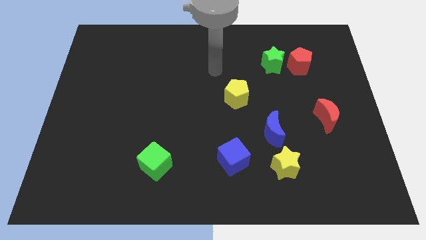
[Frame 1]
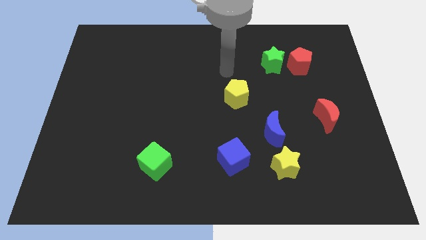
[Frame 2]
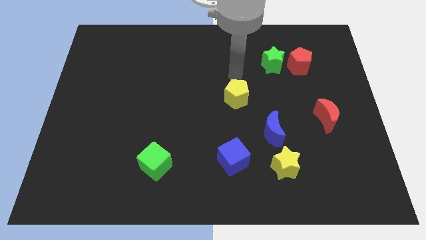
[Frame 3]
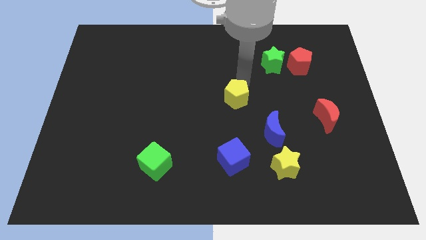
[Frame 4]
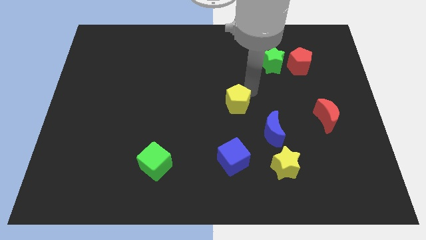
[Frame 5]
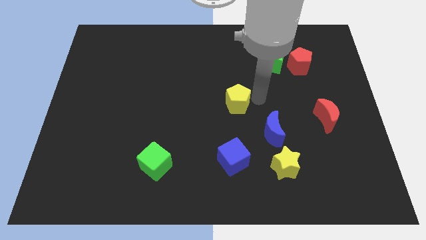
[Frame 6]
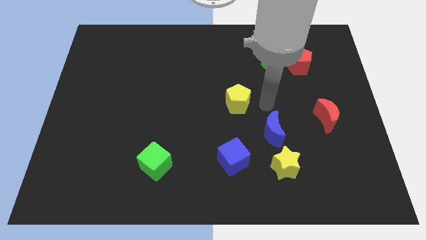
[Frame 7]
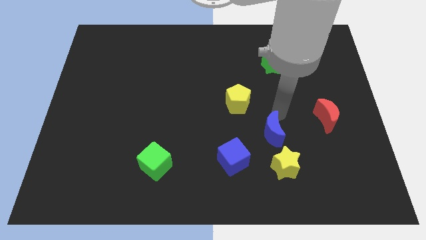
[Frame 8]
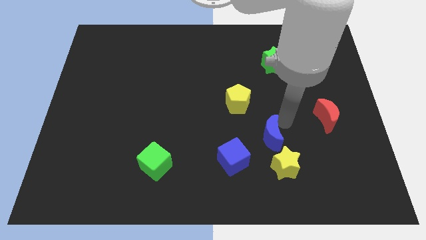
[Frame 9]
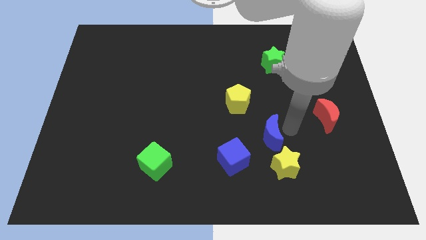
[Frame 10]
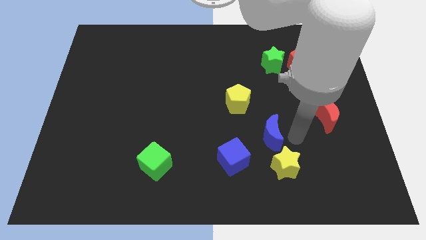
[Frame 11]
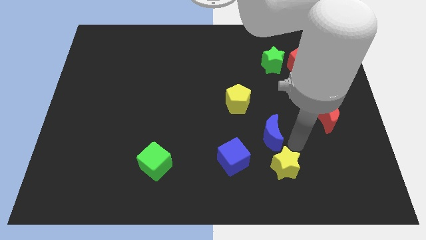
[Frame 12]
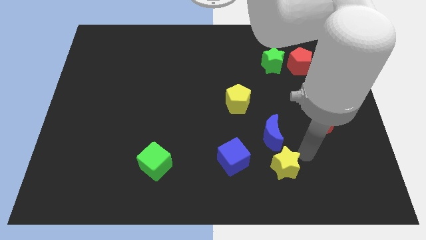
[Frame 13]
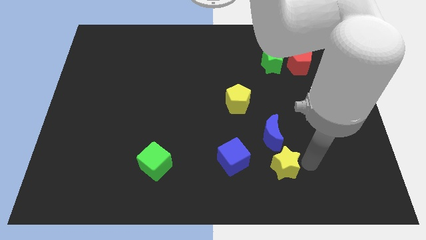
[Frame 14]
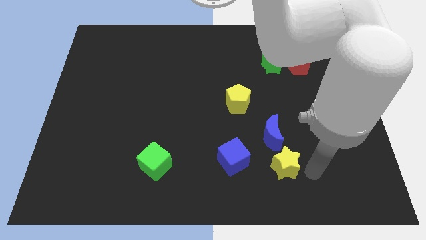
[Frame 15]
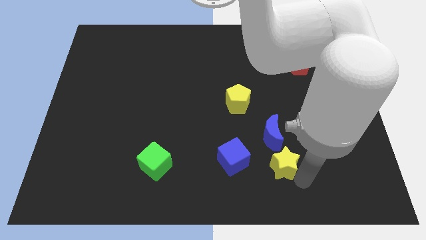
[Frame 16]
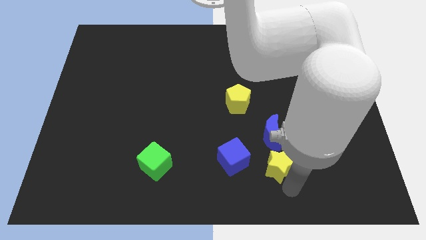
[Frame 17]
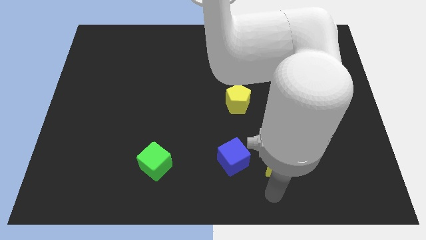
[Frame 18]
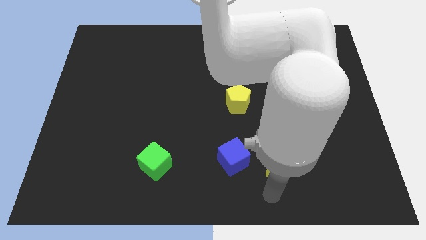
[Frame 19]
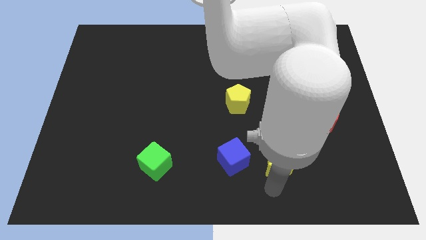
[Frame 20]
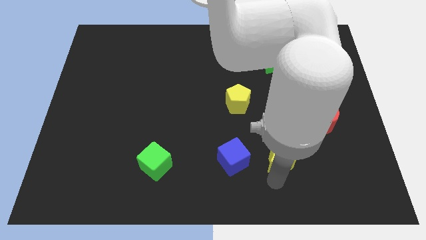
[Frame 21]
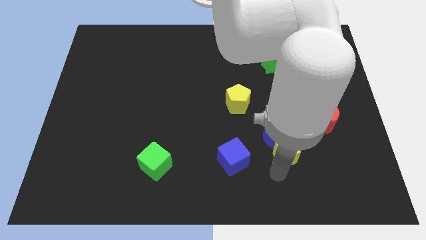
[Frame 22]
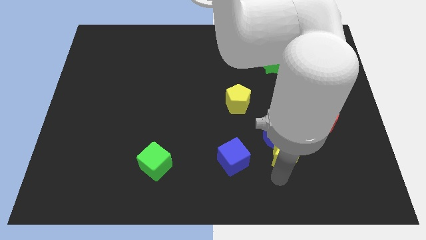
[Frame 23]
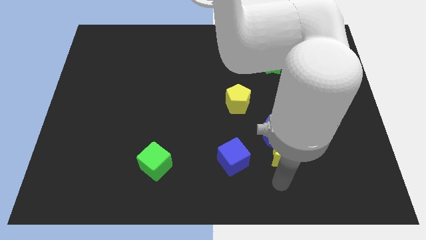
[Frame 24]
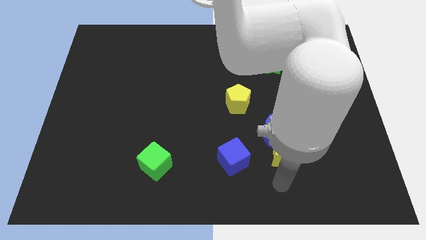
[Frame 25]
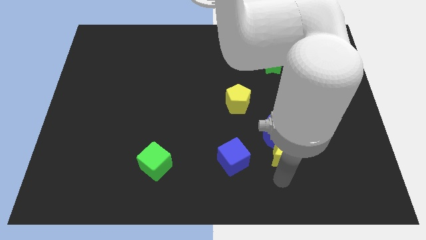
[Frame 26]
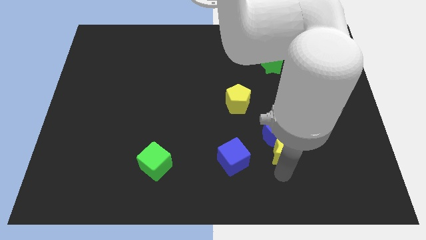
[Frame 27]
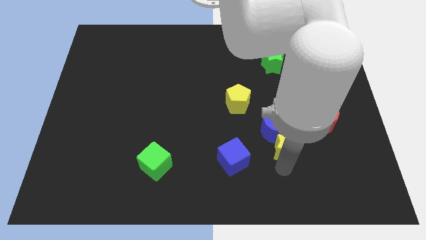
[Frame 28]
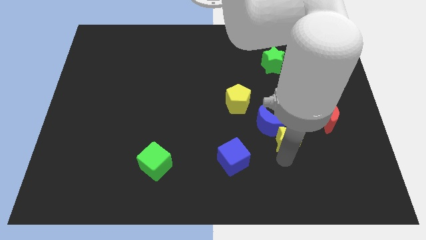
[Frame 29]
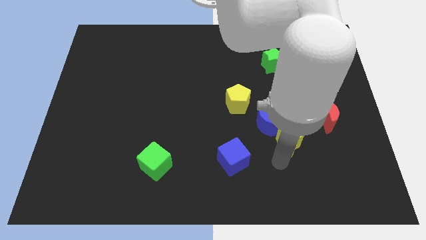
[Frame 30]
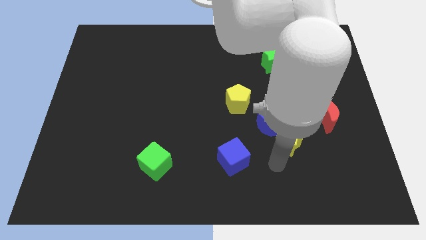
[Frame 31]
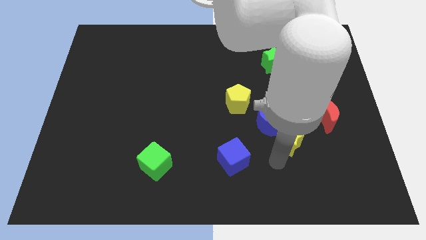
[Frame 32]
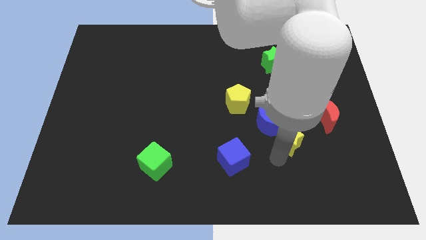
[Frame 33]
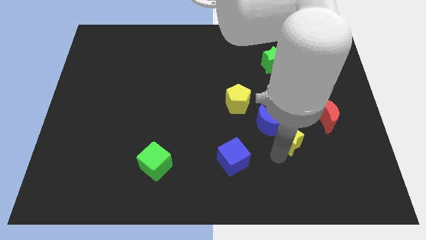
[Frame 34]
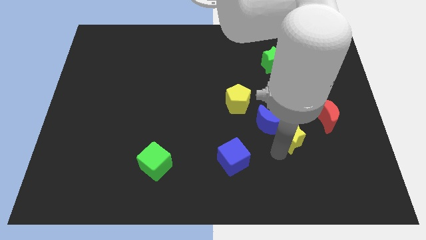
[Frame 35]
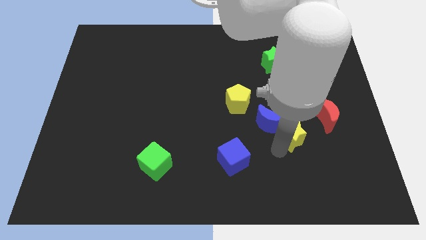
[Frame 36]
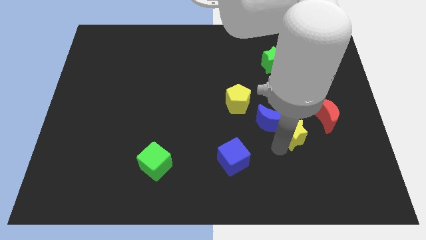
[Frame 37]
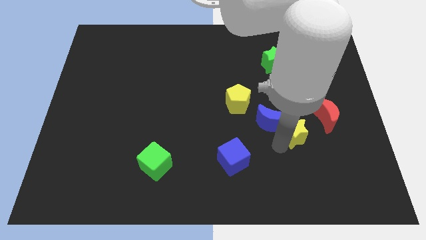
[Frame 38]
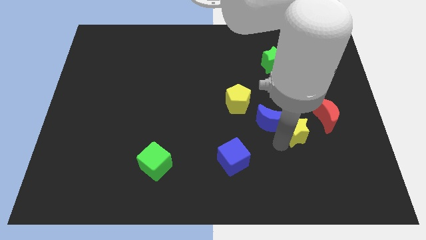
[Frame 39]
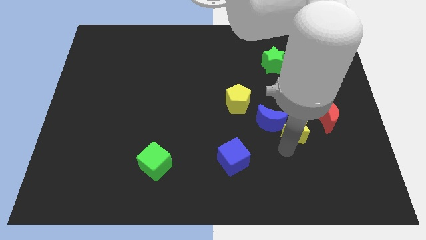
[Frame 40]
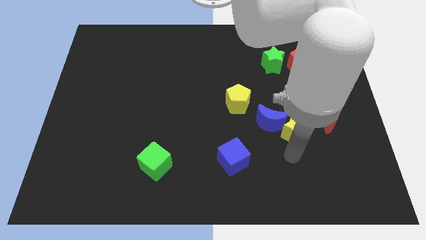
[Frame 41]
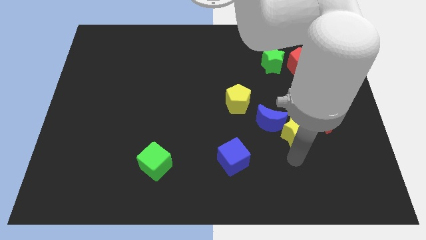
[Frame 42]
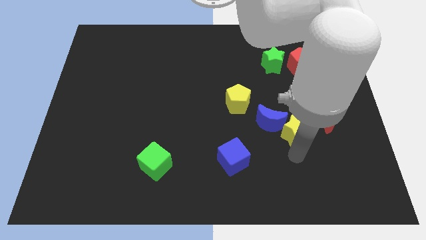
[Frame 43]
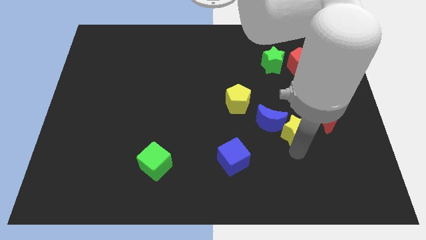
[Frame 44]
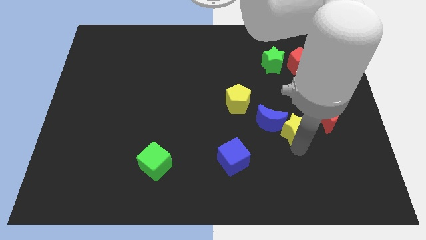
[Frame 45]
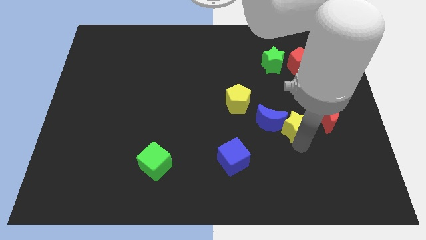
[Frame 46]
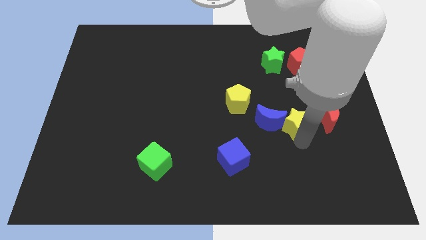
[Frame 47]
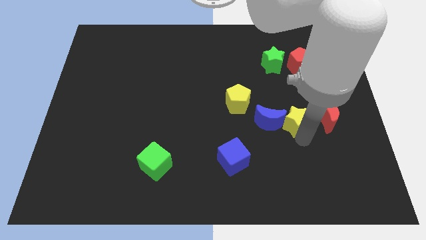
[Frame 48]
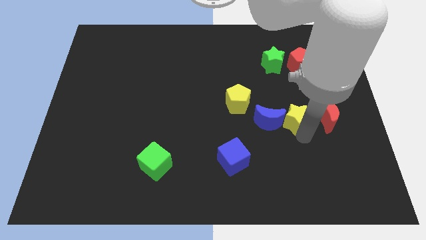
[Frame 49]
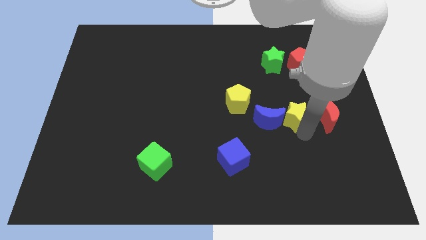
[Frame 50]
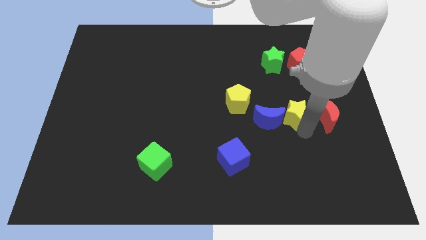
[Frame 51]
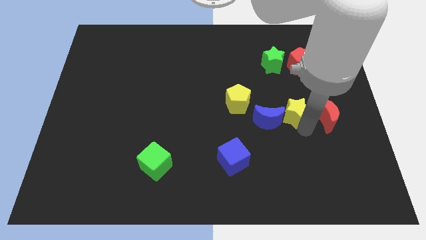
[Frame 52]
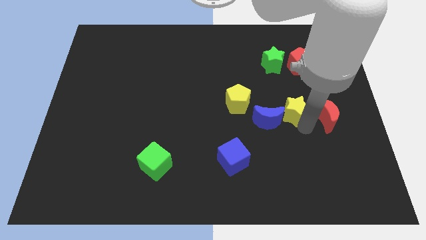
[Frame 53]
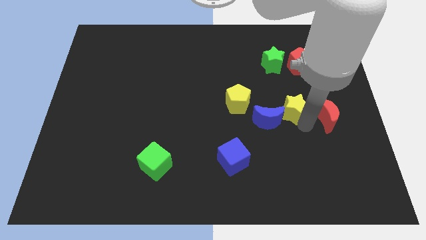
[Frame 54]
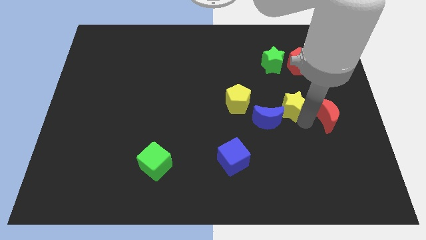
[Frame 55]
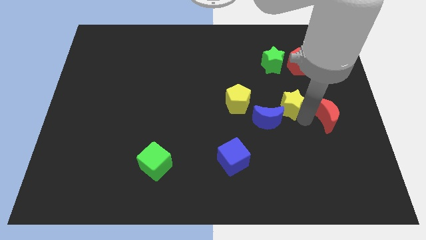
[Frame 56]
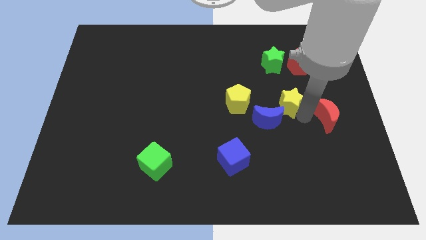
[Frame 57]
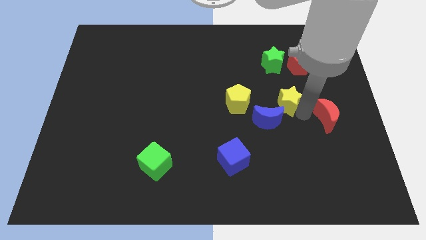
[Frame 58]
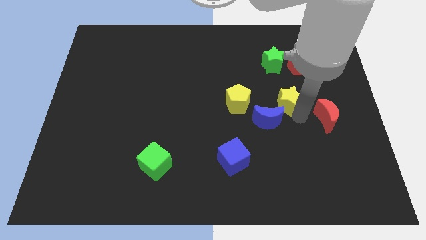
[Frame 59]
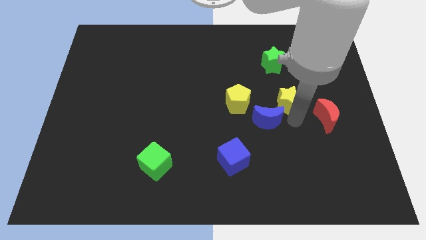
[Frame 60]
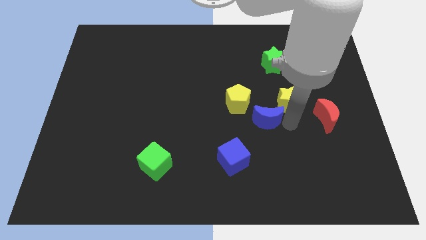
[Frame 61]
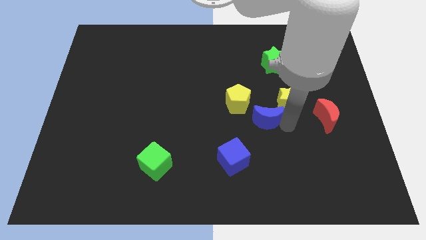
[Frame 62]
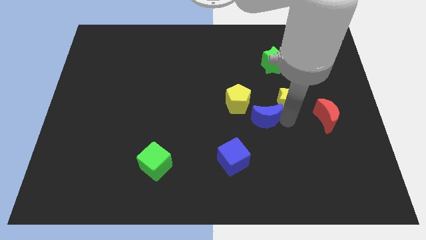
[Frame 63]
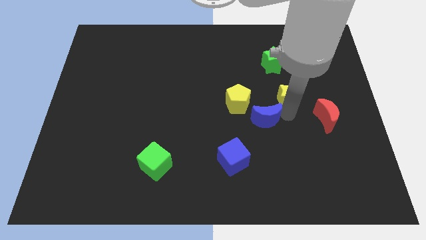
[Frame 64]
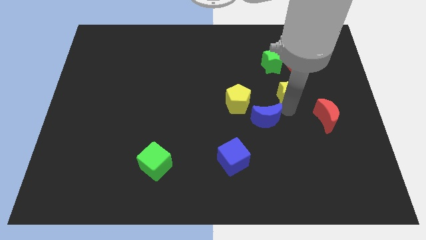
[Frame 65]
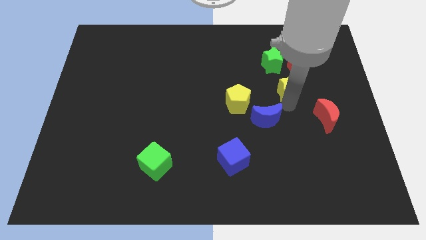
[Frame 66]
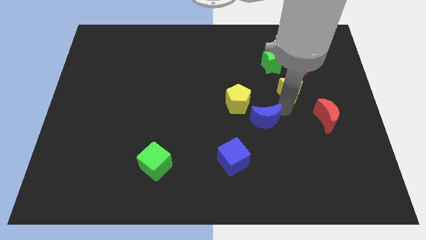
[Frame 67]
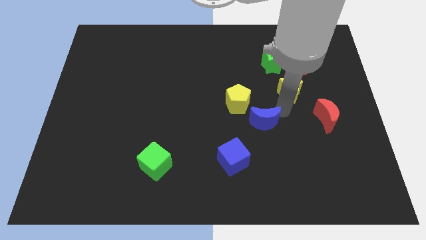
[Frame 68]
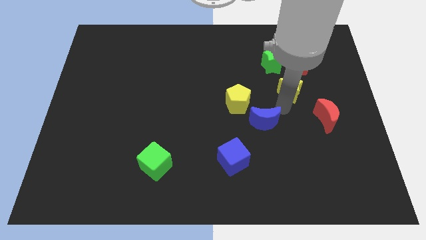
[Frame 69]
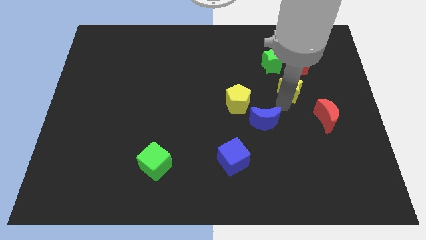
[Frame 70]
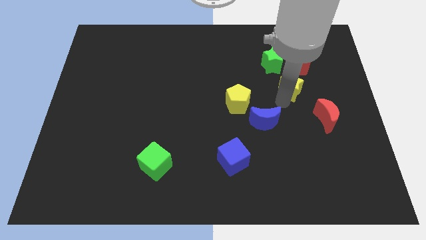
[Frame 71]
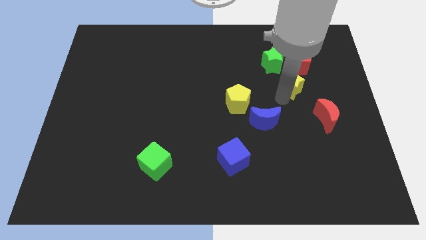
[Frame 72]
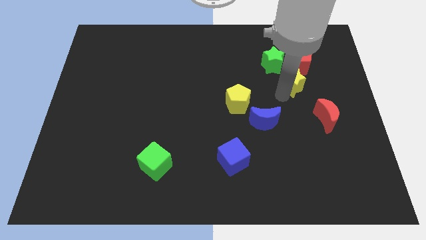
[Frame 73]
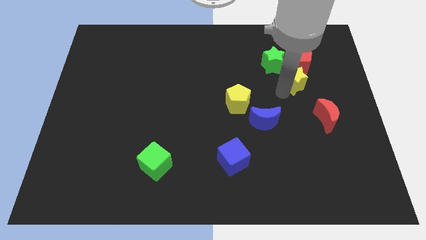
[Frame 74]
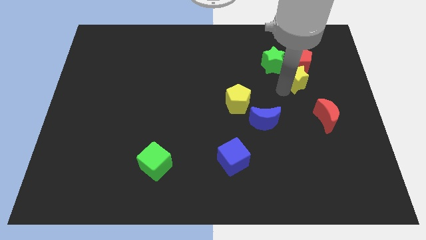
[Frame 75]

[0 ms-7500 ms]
put the yellow star to the red pentagon
